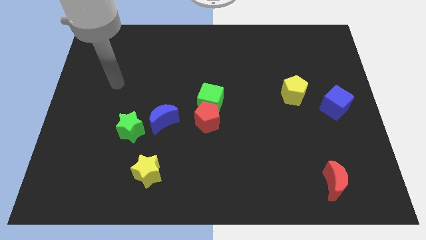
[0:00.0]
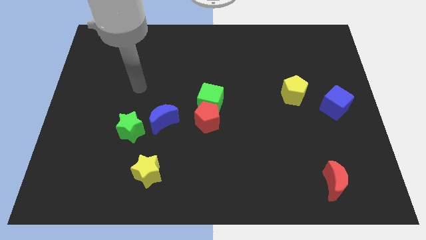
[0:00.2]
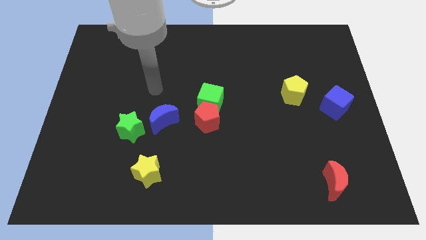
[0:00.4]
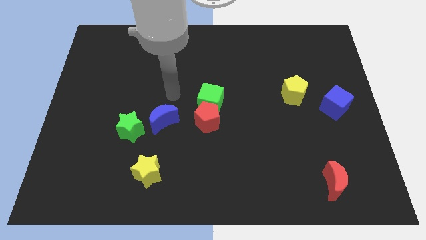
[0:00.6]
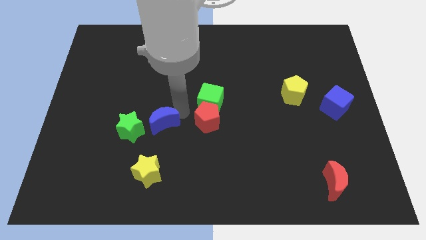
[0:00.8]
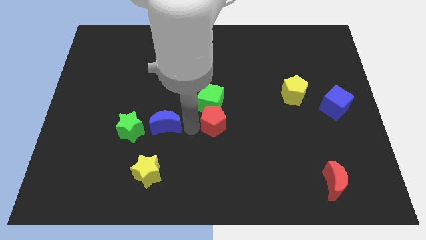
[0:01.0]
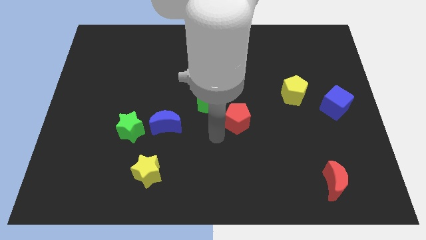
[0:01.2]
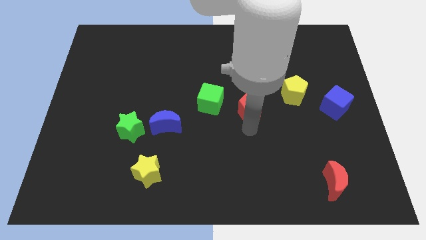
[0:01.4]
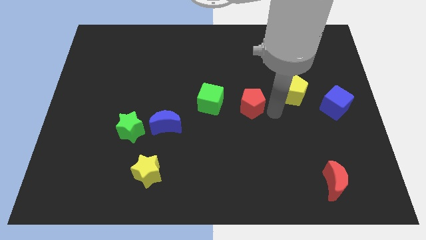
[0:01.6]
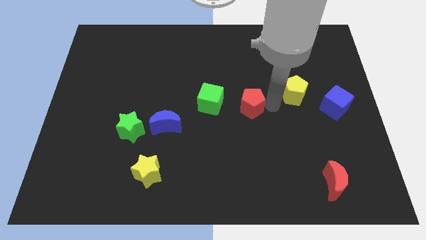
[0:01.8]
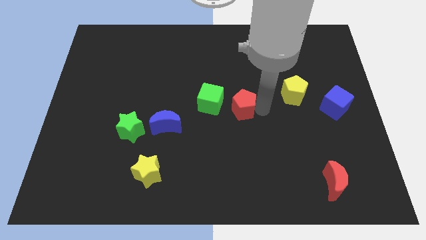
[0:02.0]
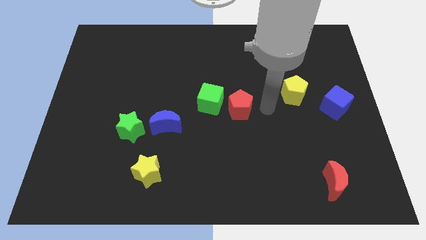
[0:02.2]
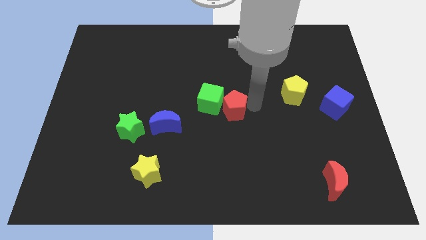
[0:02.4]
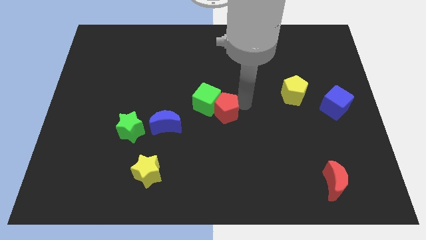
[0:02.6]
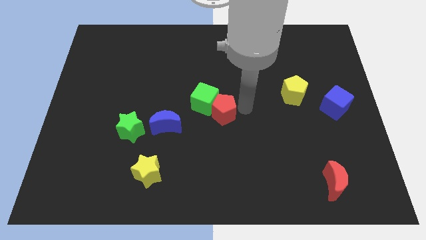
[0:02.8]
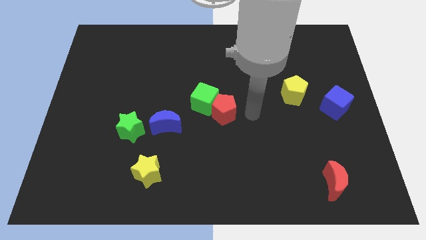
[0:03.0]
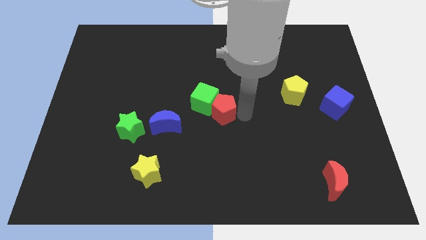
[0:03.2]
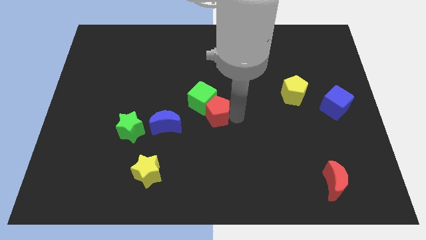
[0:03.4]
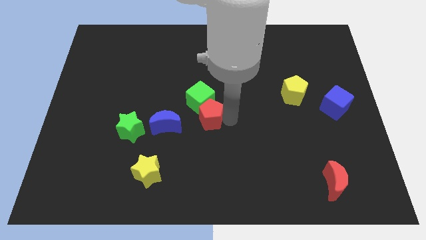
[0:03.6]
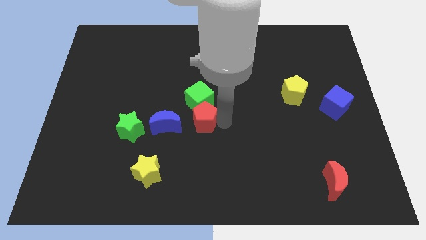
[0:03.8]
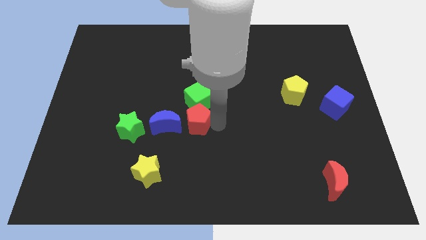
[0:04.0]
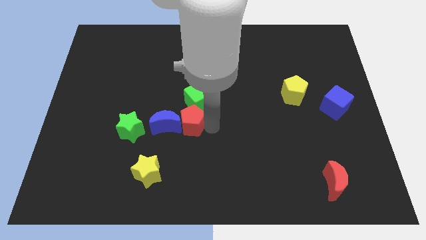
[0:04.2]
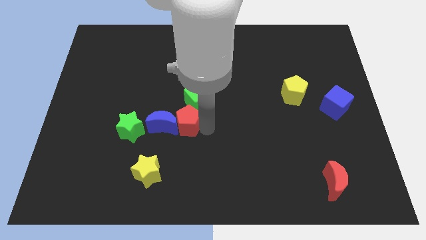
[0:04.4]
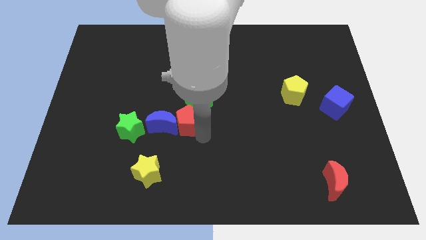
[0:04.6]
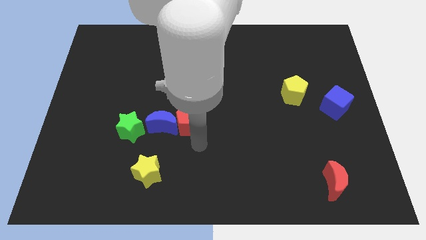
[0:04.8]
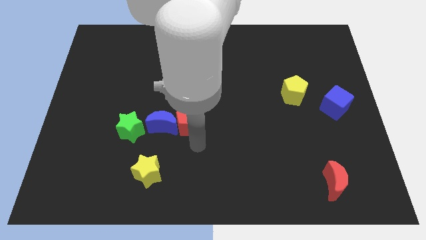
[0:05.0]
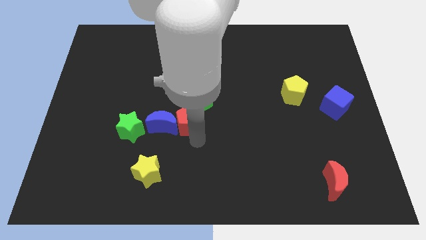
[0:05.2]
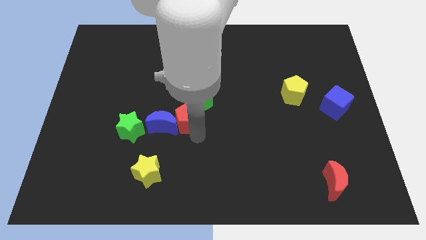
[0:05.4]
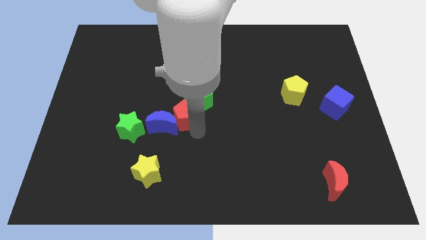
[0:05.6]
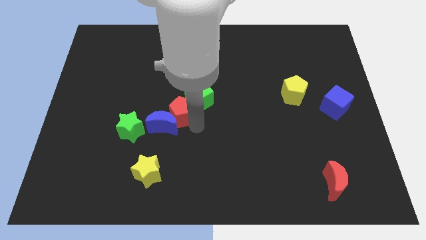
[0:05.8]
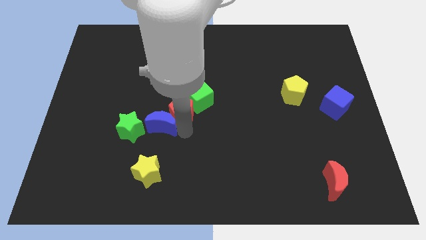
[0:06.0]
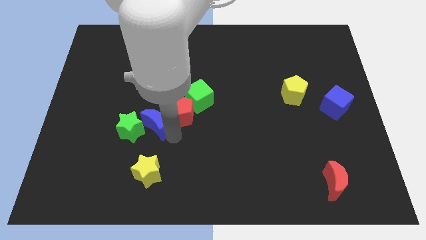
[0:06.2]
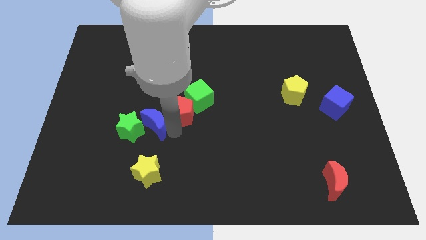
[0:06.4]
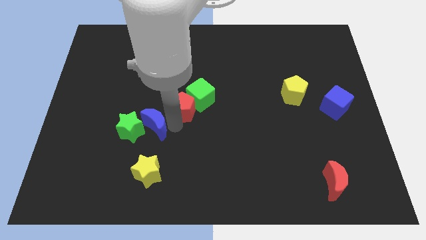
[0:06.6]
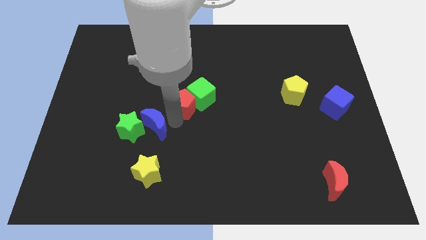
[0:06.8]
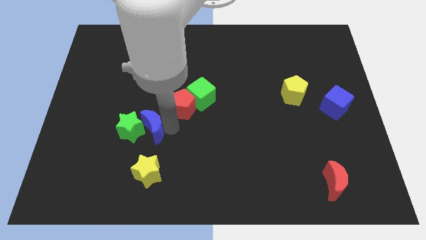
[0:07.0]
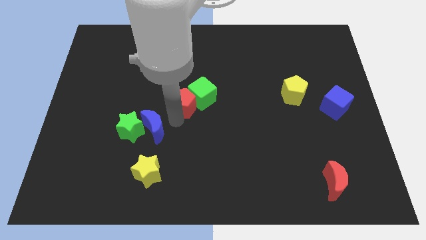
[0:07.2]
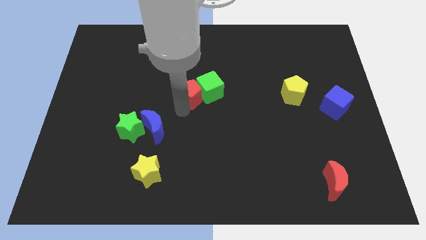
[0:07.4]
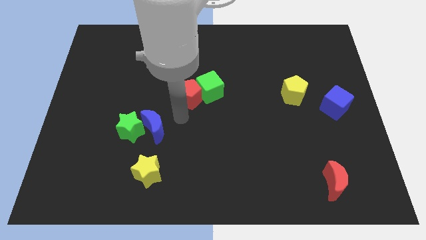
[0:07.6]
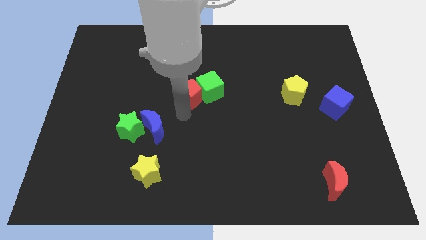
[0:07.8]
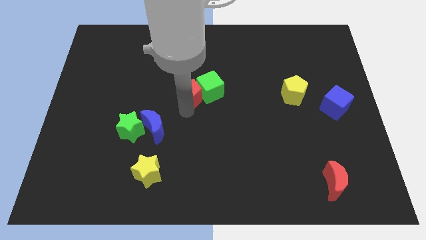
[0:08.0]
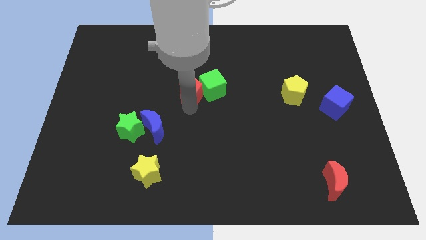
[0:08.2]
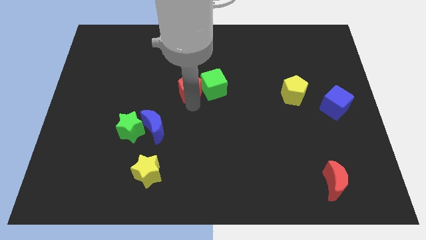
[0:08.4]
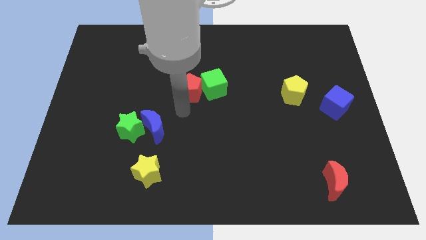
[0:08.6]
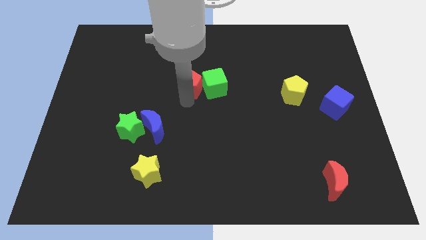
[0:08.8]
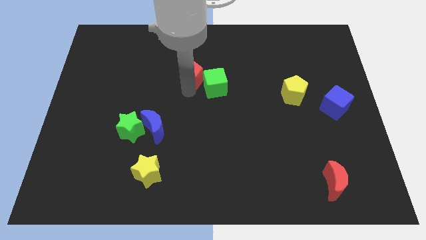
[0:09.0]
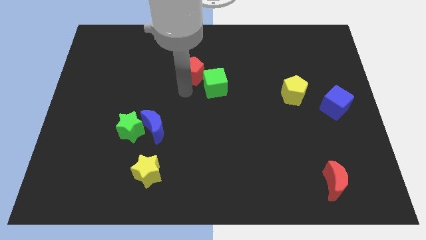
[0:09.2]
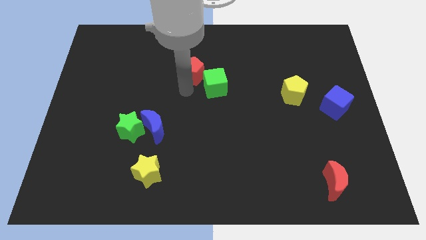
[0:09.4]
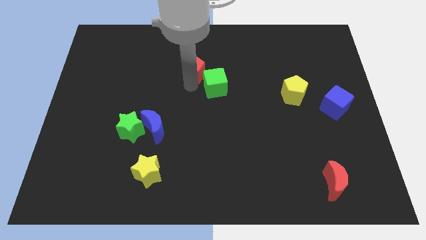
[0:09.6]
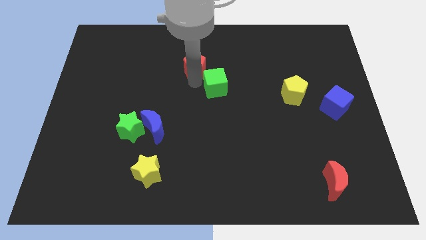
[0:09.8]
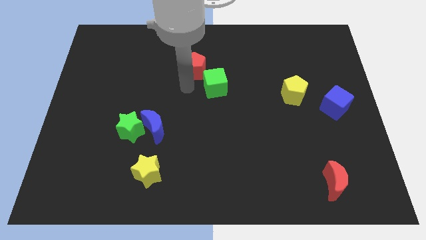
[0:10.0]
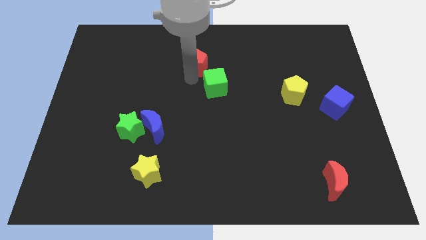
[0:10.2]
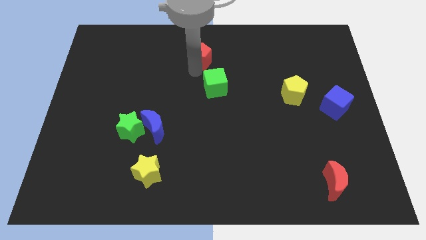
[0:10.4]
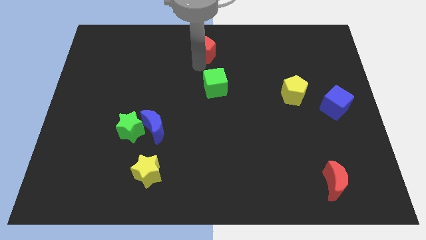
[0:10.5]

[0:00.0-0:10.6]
move the red pentagon to the top

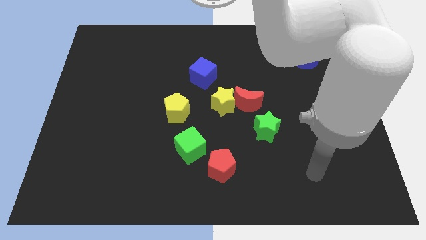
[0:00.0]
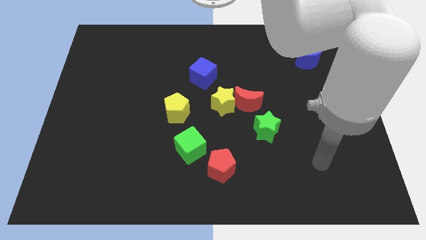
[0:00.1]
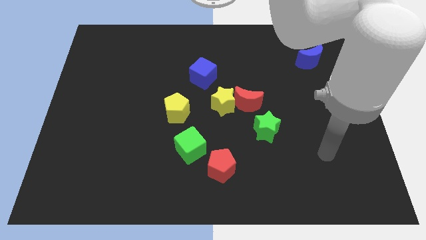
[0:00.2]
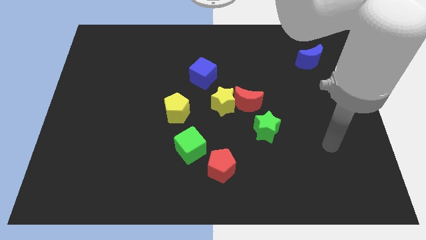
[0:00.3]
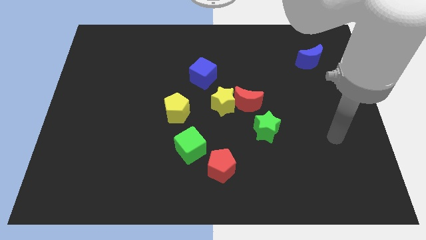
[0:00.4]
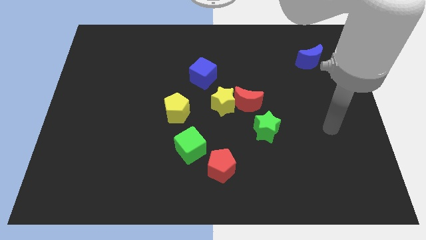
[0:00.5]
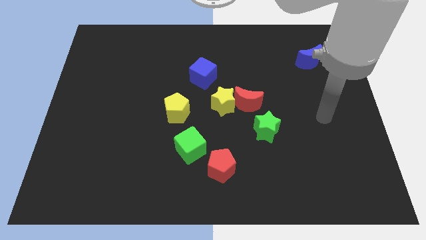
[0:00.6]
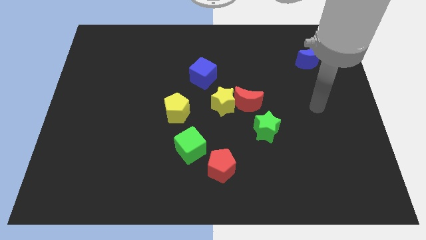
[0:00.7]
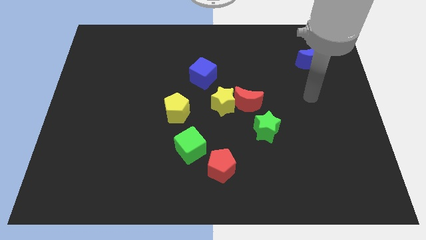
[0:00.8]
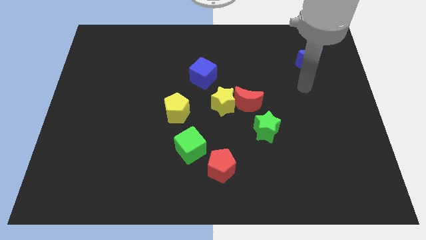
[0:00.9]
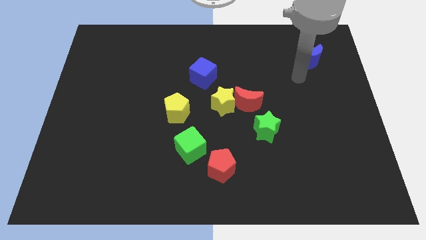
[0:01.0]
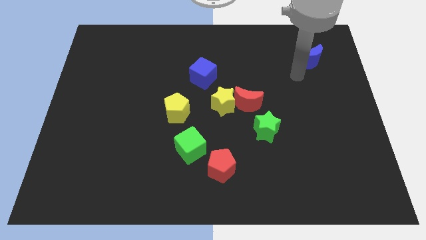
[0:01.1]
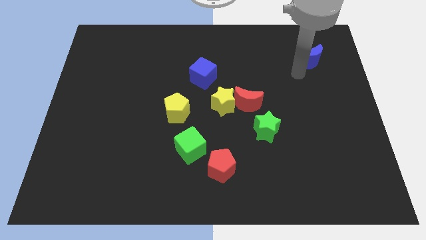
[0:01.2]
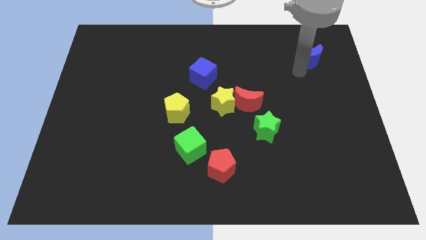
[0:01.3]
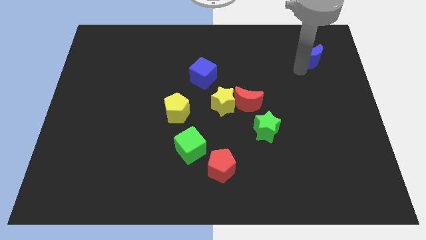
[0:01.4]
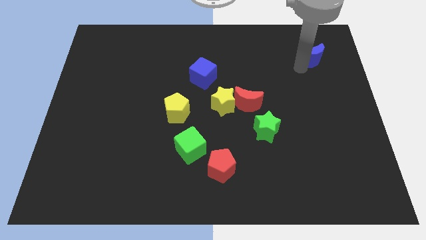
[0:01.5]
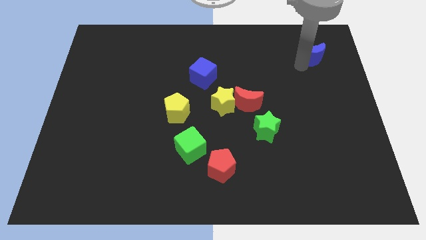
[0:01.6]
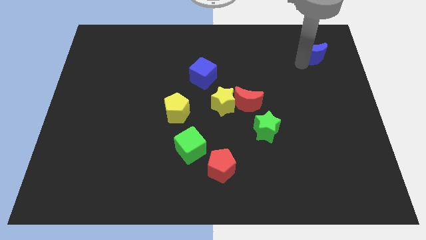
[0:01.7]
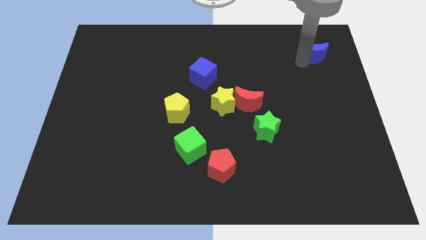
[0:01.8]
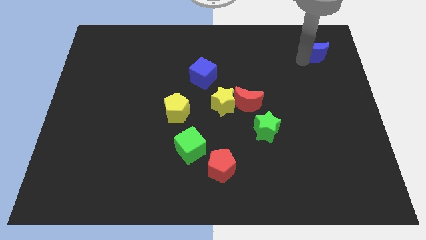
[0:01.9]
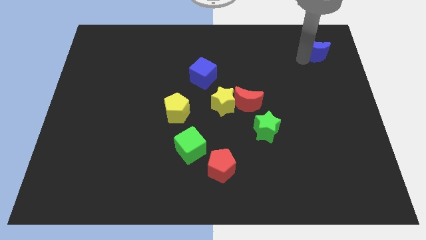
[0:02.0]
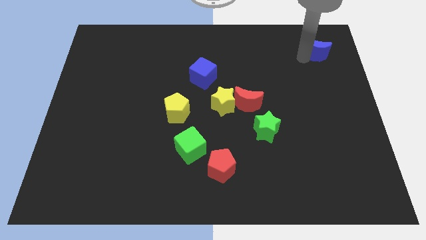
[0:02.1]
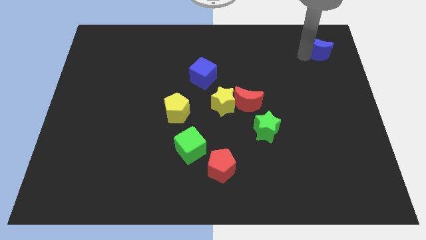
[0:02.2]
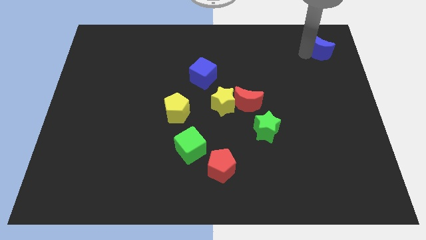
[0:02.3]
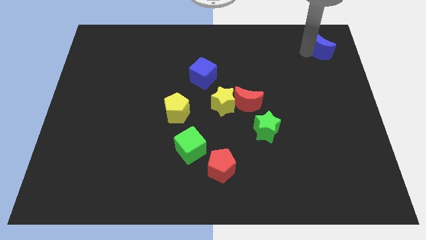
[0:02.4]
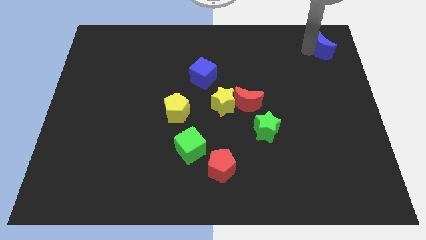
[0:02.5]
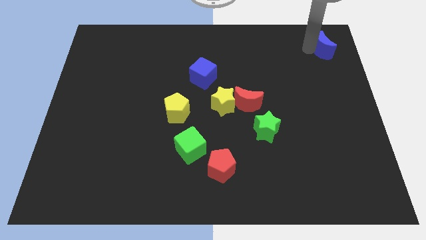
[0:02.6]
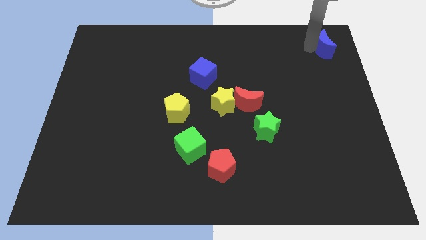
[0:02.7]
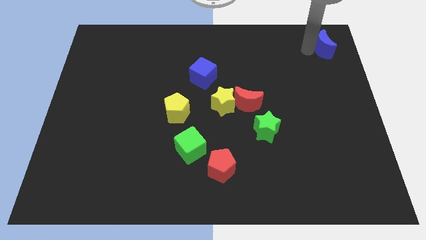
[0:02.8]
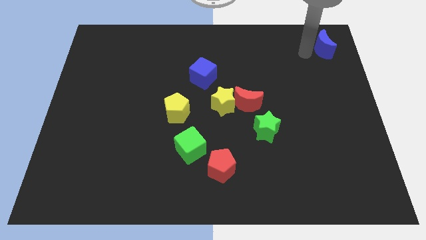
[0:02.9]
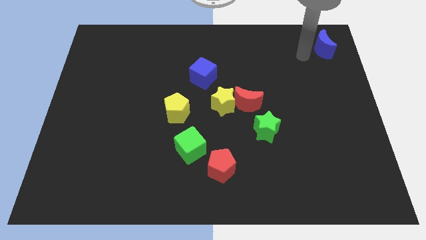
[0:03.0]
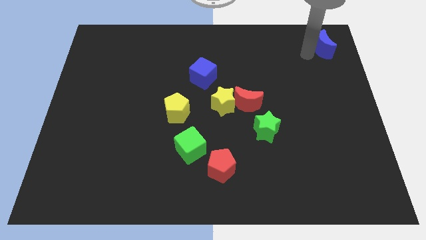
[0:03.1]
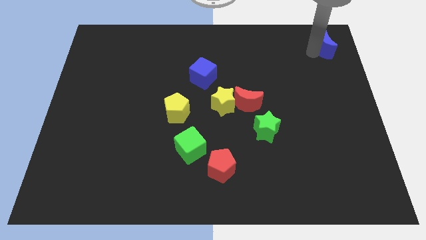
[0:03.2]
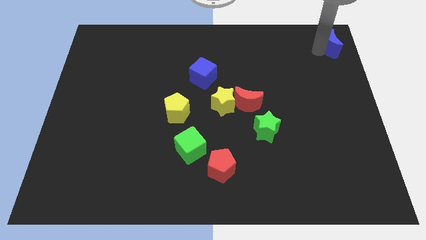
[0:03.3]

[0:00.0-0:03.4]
push the blue moon to the top right
